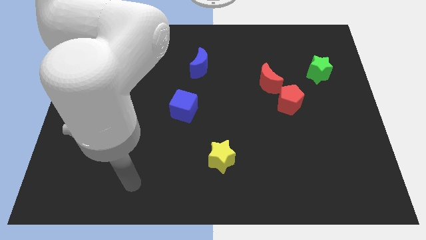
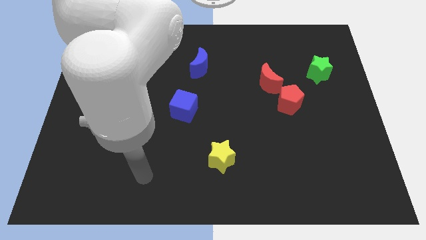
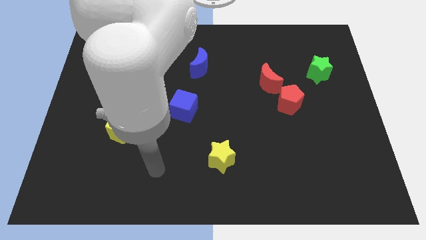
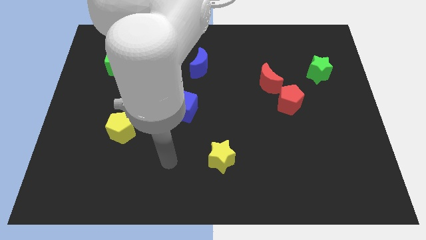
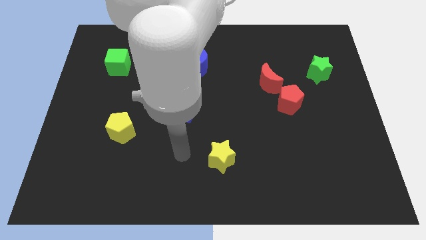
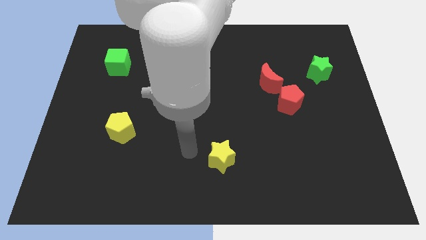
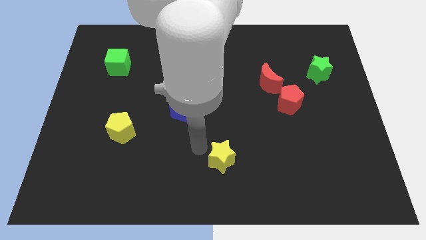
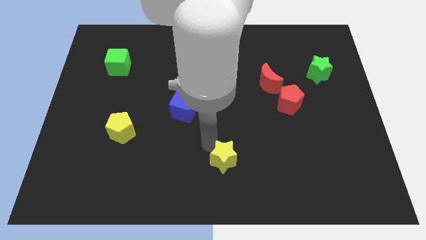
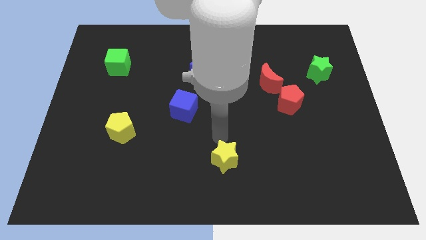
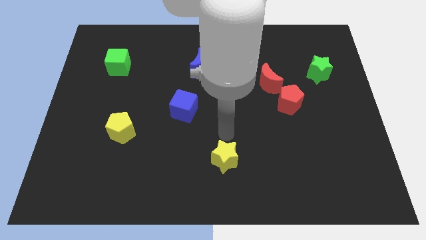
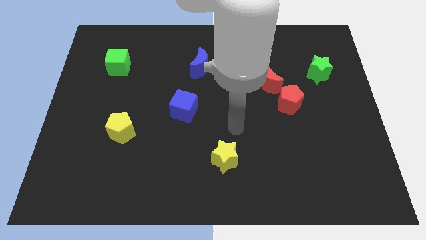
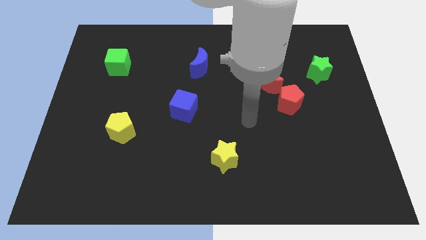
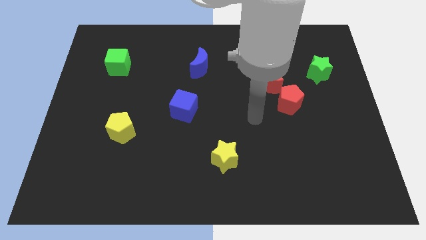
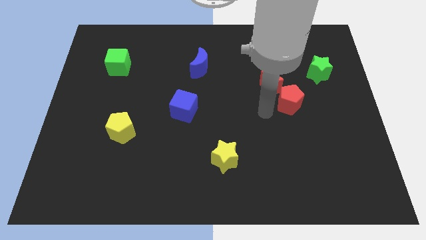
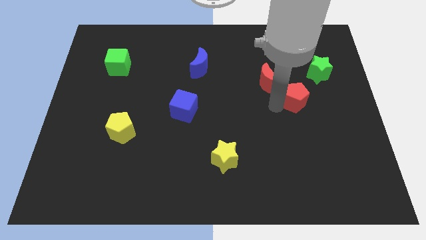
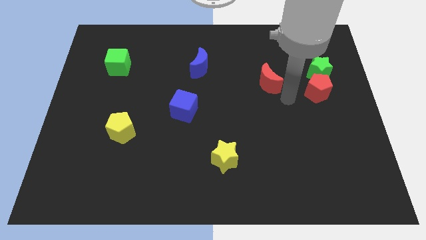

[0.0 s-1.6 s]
separate the red moon from the red pentagon

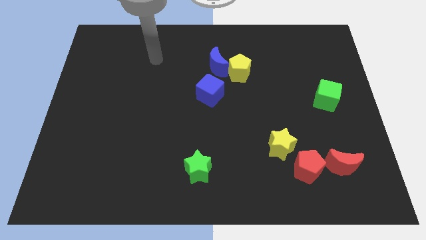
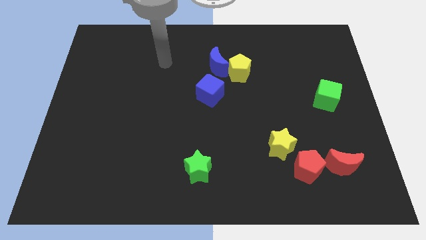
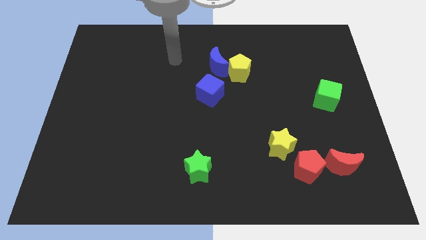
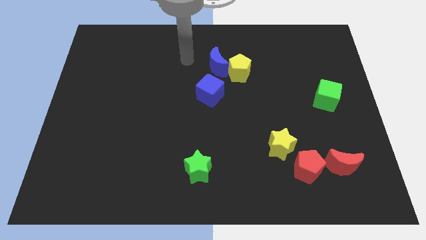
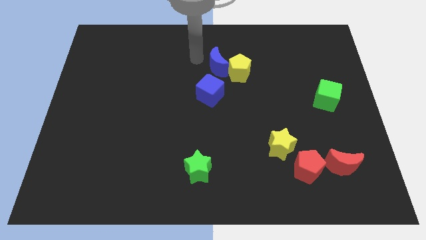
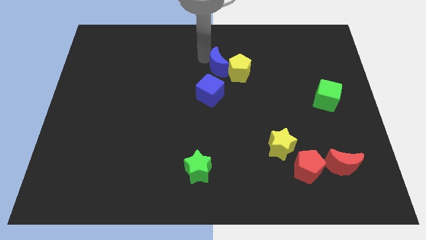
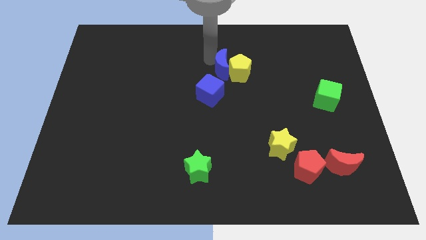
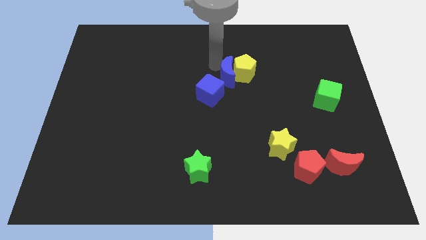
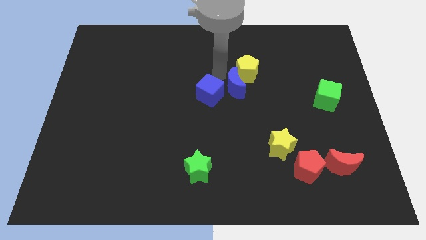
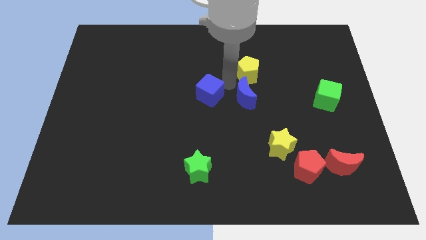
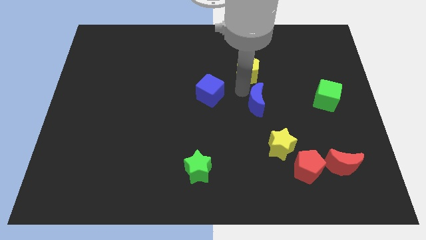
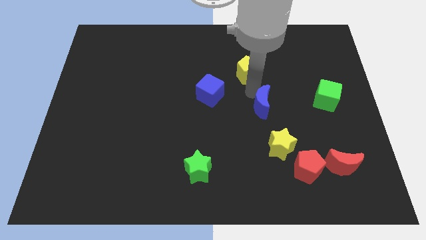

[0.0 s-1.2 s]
move the yellow pentagon away from the blue moon

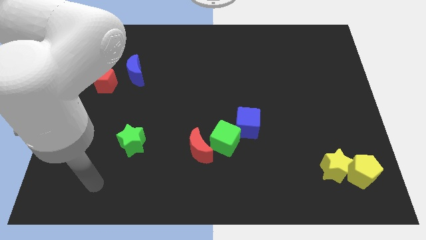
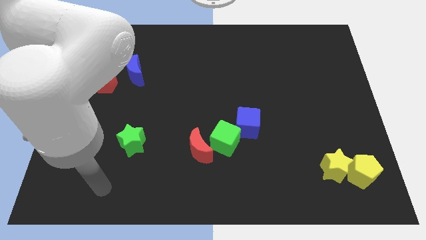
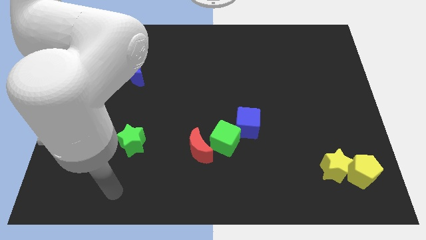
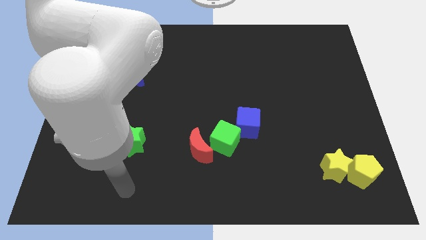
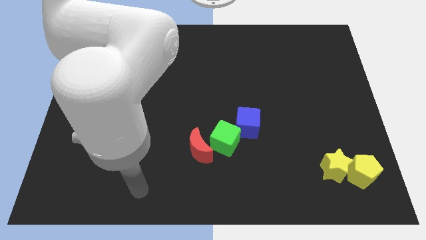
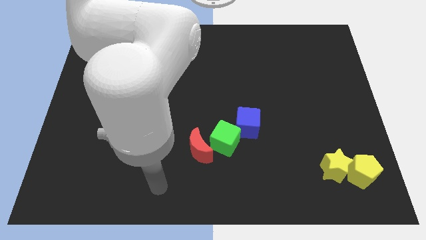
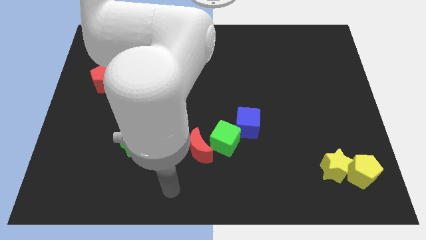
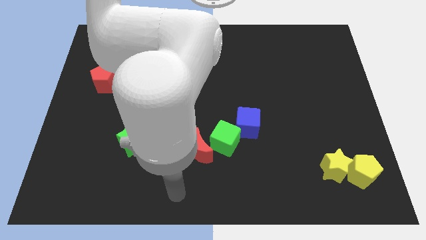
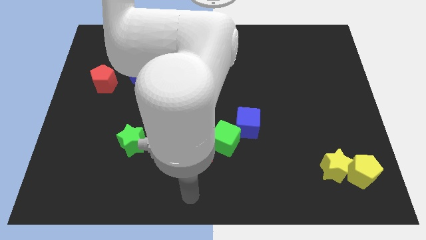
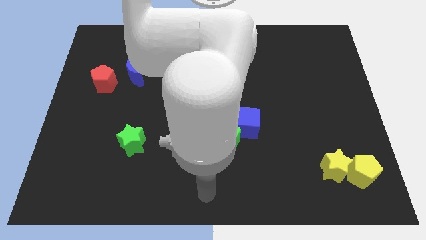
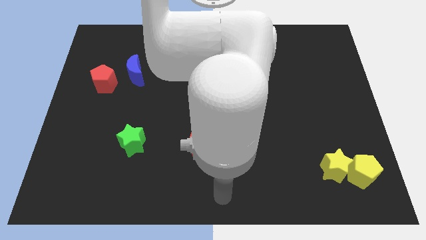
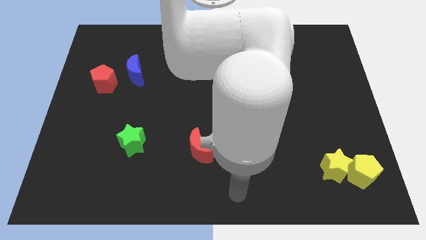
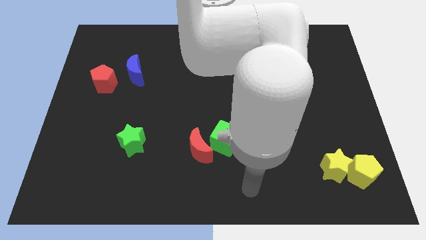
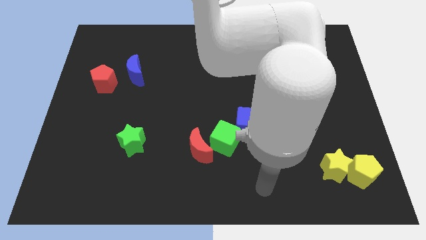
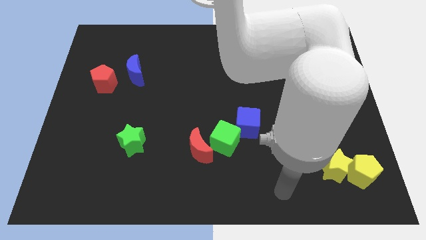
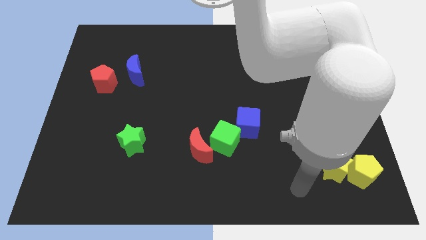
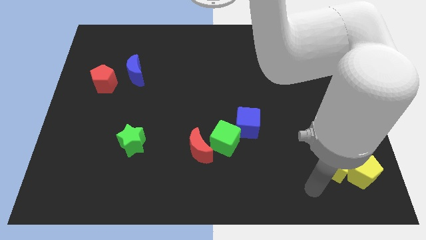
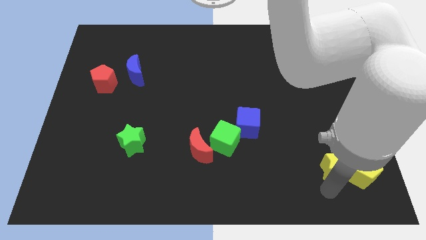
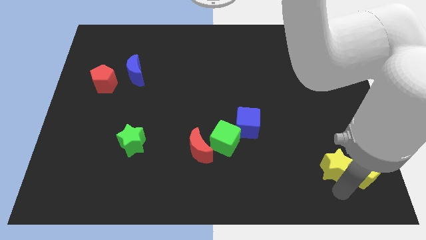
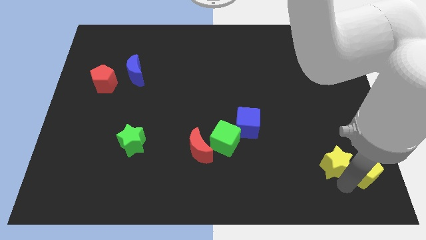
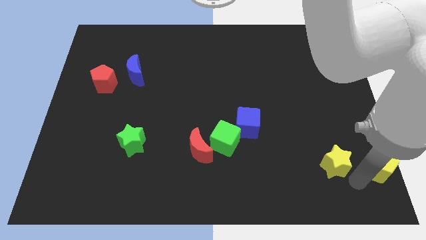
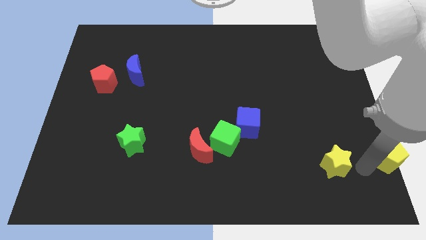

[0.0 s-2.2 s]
move the yellow star away from the yellow pentagon

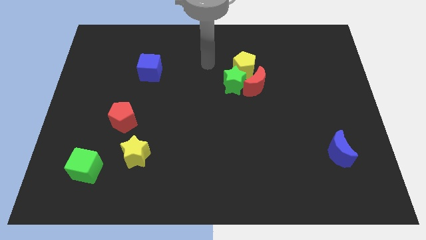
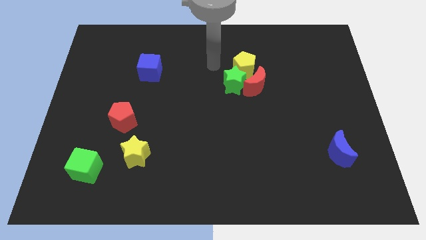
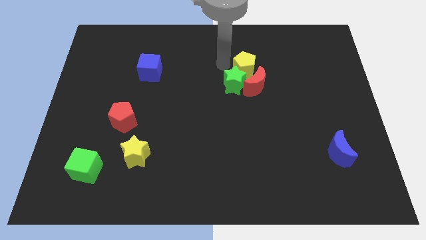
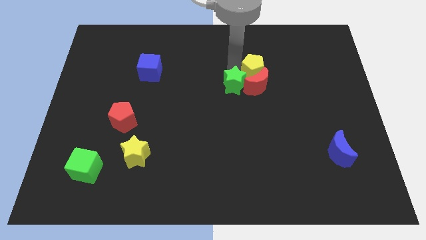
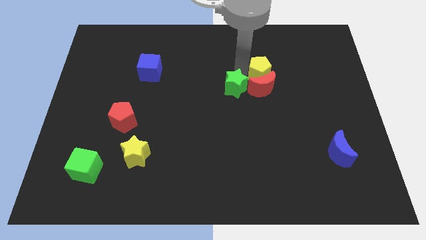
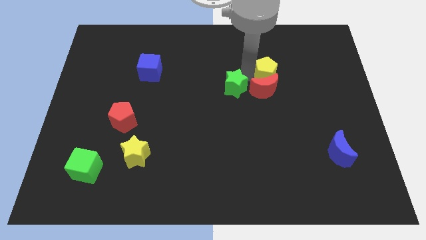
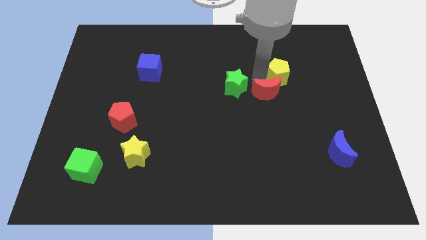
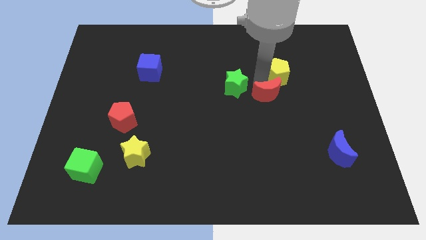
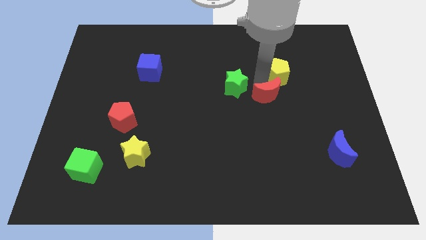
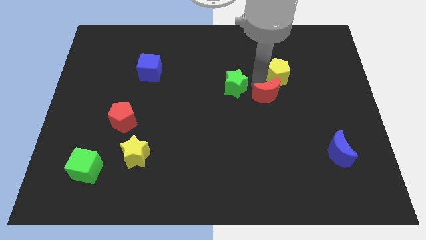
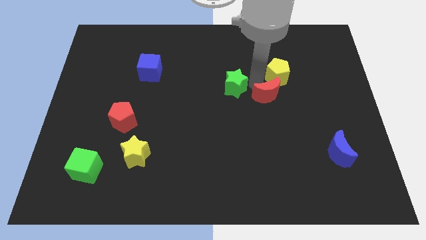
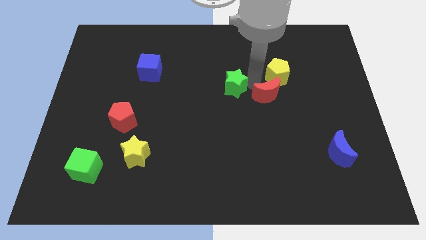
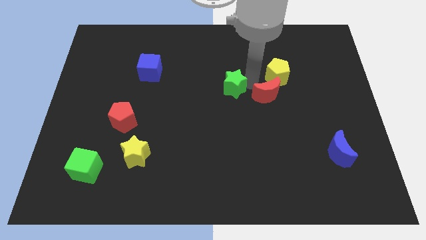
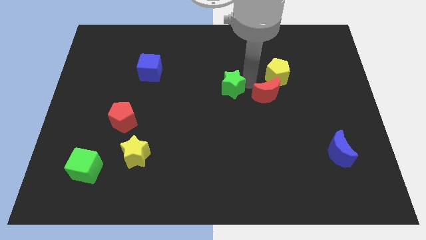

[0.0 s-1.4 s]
move the green star away from the red moon and yellow pentagon

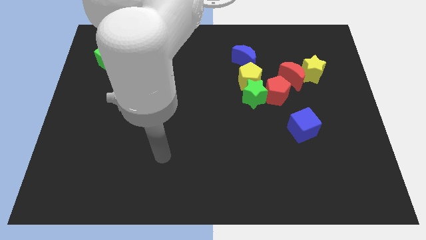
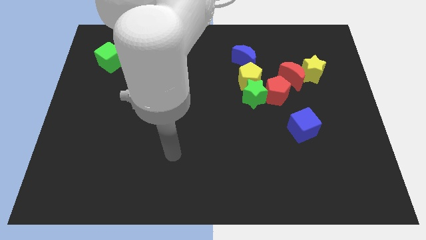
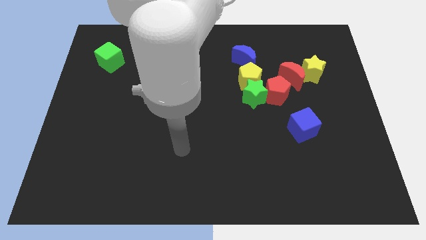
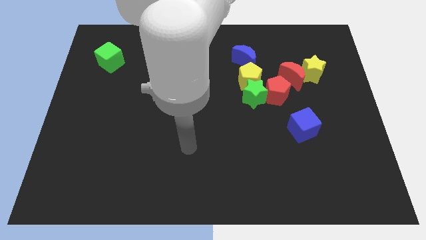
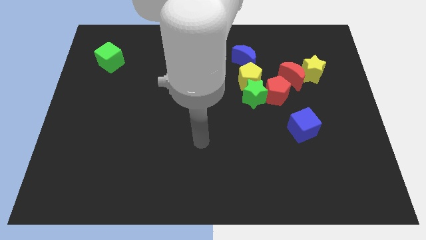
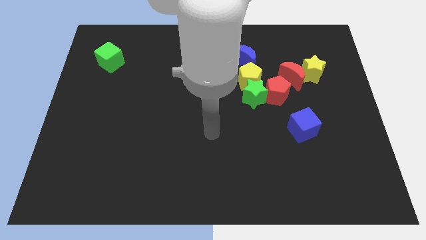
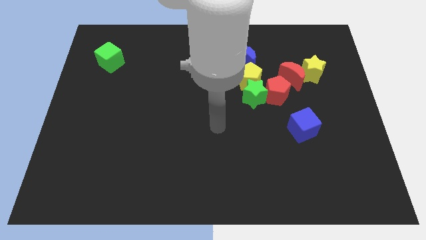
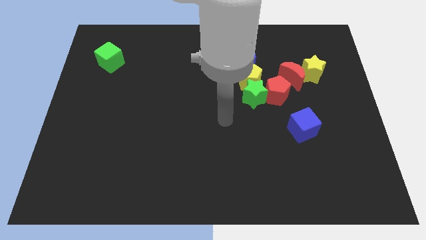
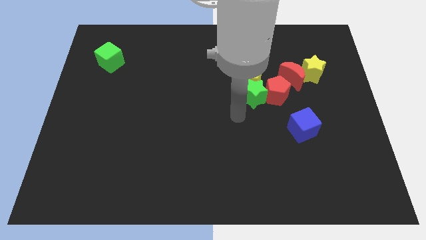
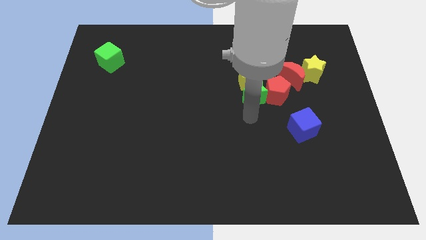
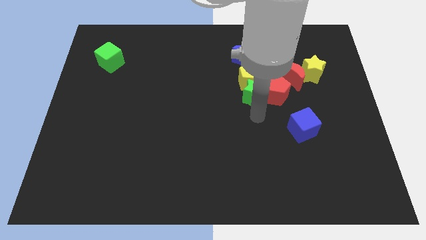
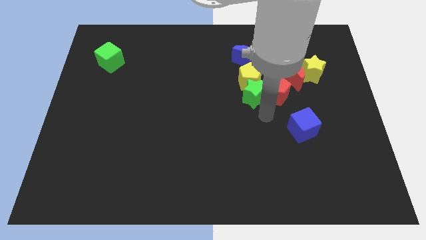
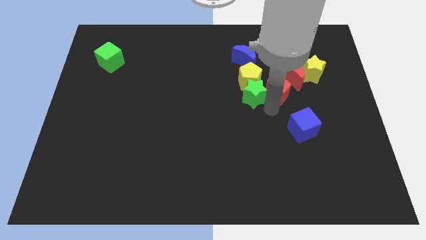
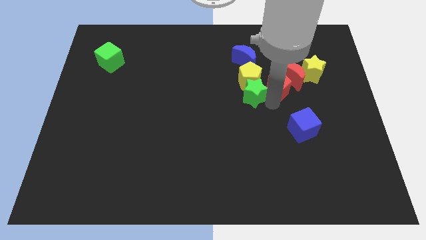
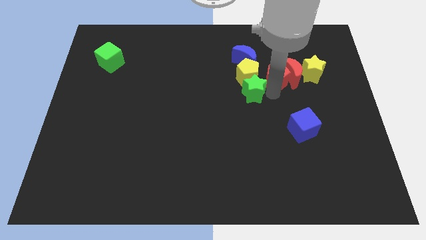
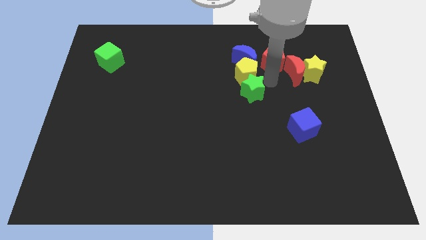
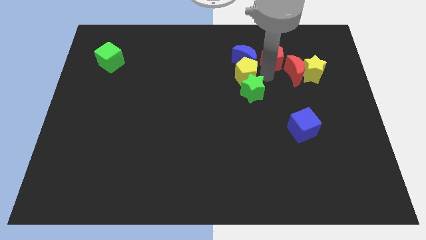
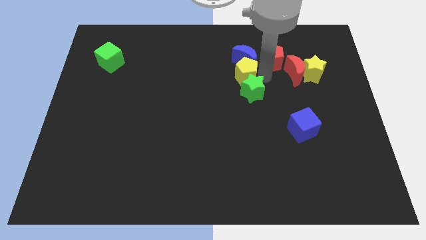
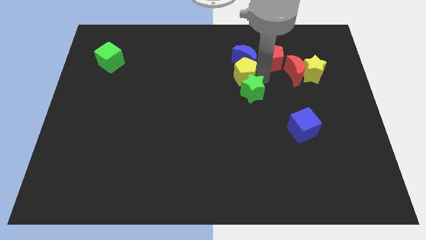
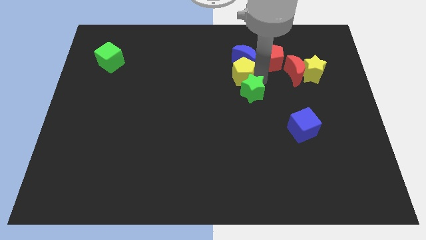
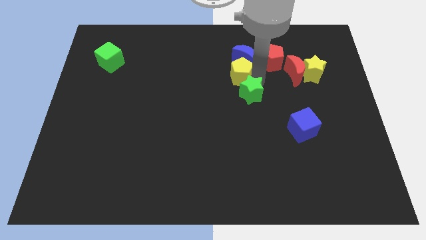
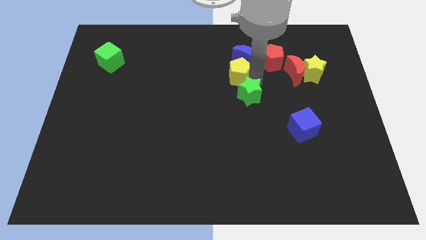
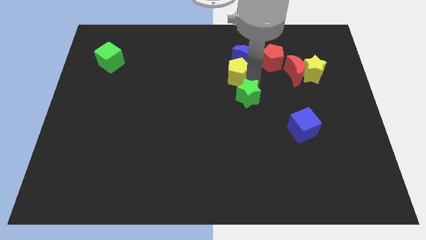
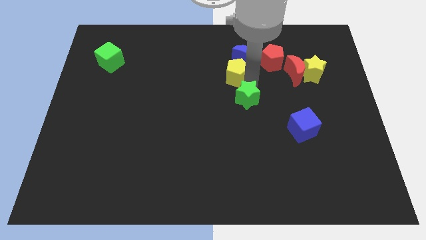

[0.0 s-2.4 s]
move the green star away from the yellow pentagon and red pentagon

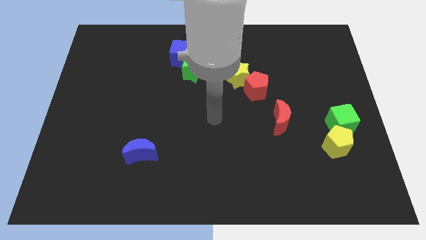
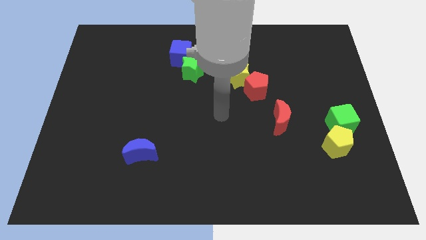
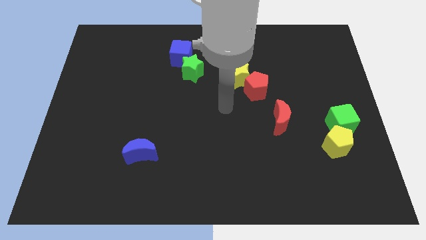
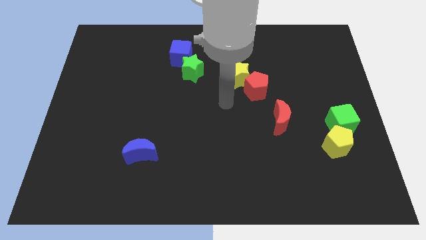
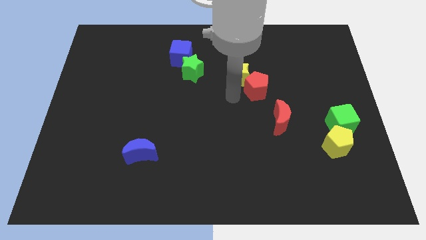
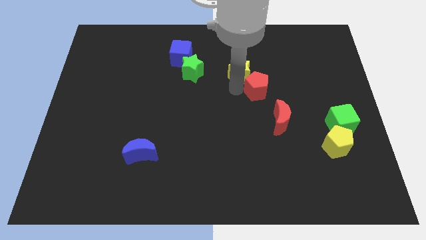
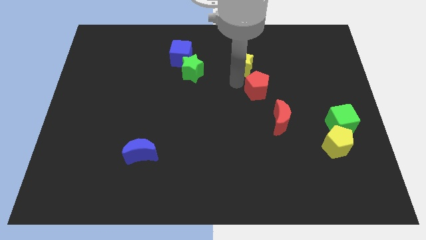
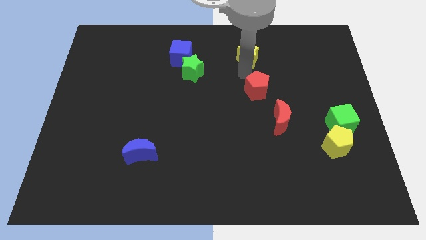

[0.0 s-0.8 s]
pull the red pentagon apart from the yellow star
